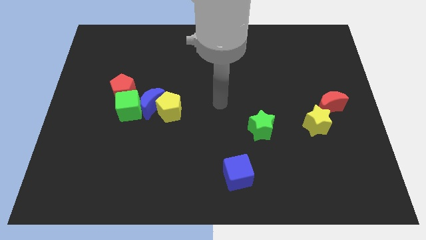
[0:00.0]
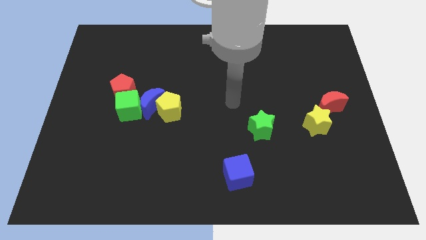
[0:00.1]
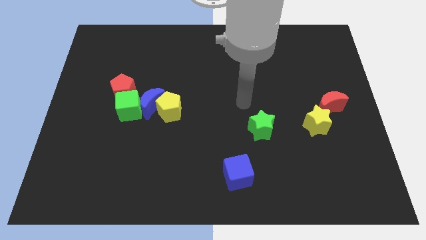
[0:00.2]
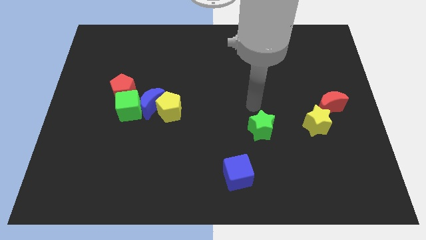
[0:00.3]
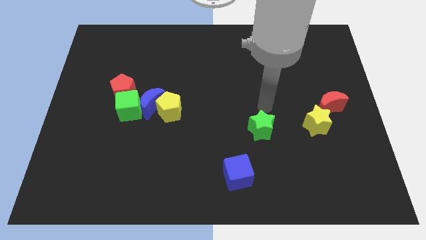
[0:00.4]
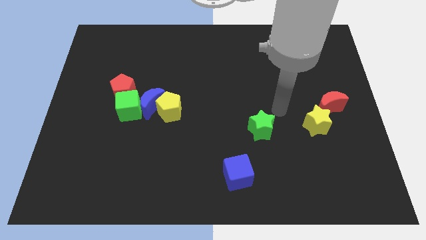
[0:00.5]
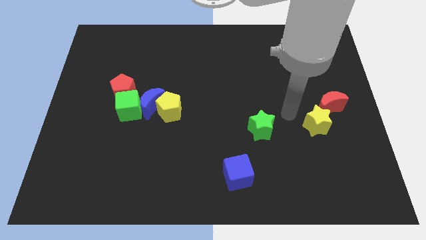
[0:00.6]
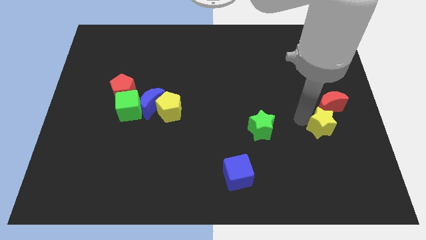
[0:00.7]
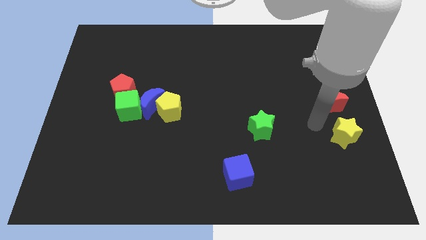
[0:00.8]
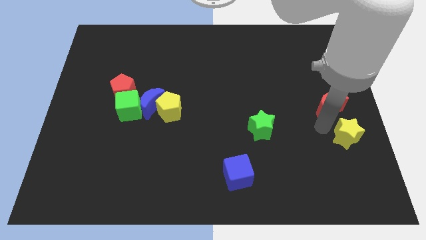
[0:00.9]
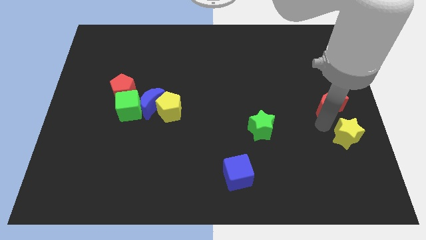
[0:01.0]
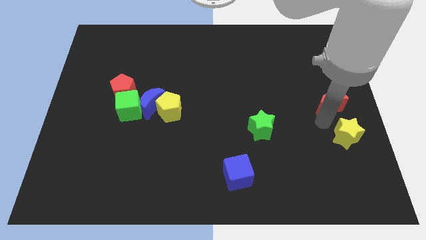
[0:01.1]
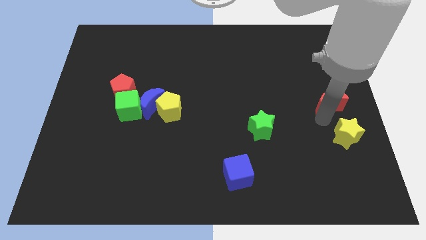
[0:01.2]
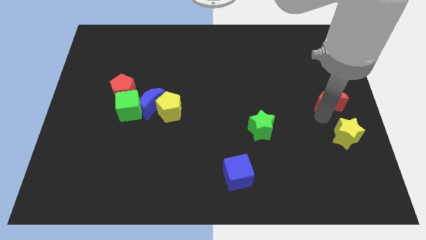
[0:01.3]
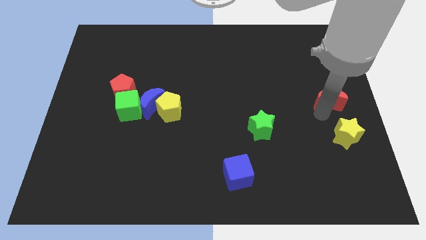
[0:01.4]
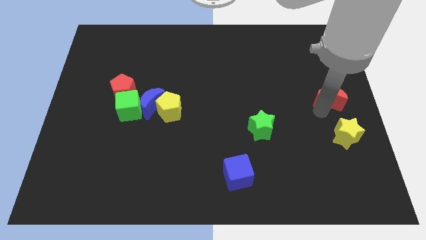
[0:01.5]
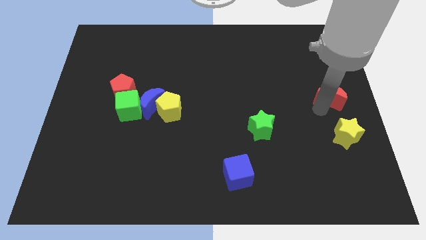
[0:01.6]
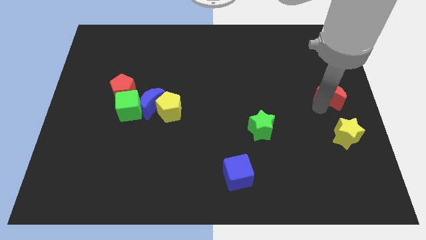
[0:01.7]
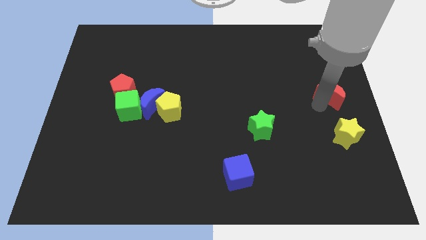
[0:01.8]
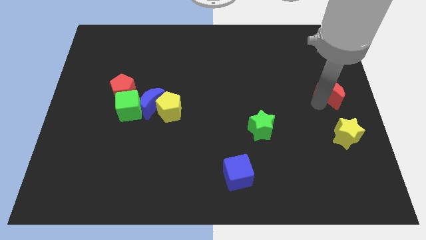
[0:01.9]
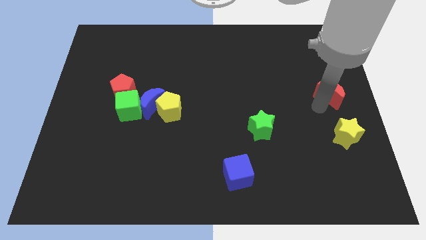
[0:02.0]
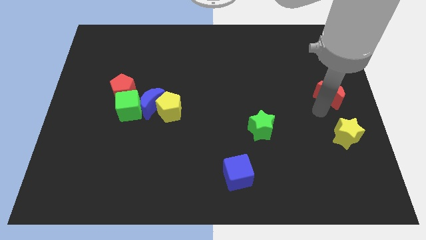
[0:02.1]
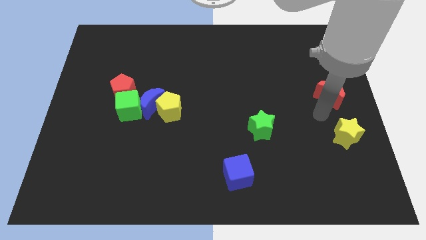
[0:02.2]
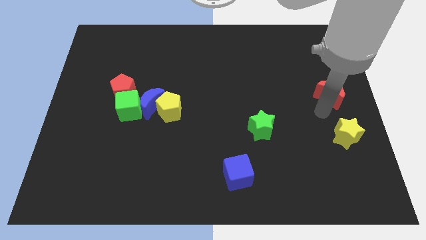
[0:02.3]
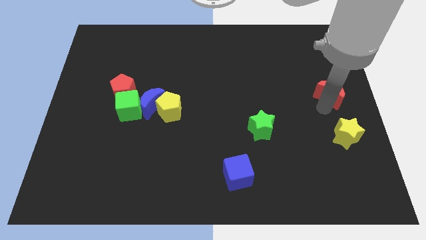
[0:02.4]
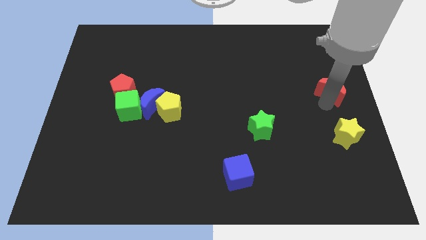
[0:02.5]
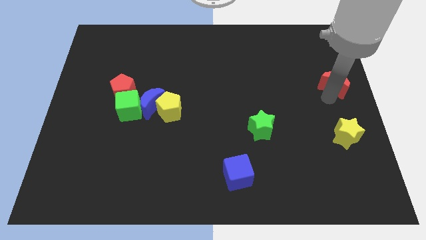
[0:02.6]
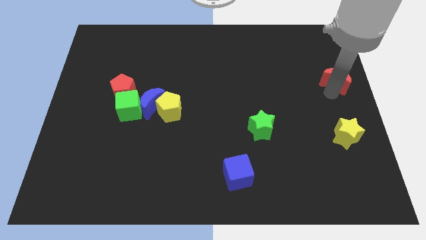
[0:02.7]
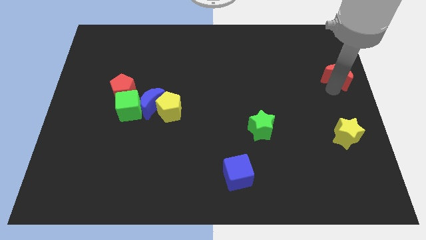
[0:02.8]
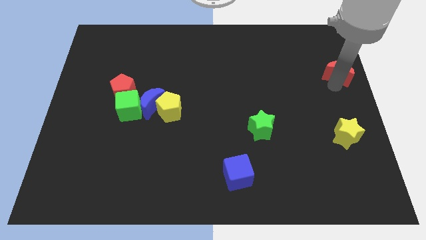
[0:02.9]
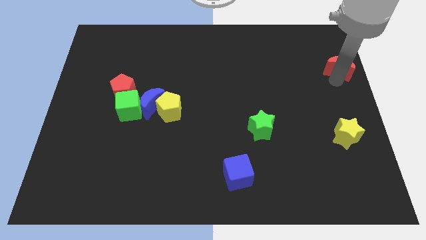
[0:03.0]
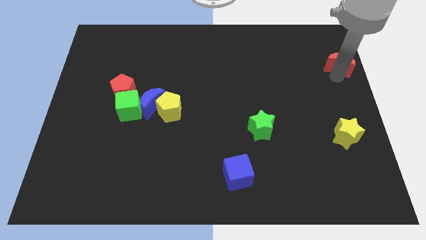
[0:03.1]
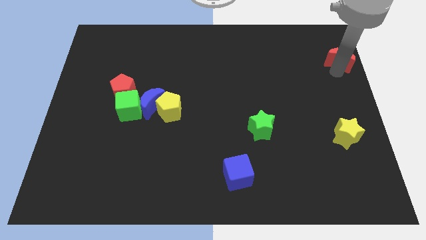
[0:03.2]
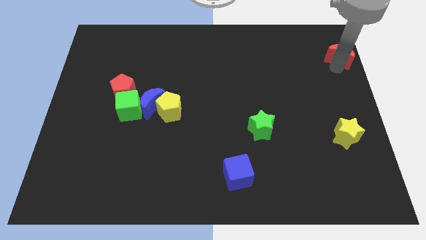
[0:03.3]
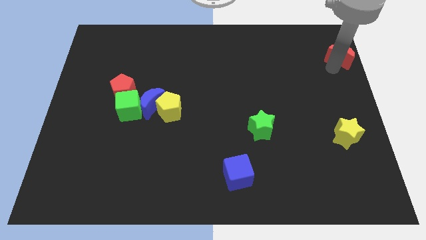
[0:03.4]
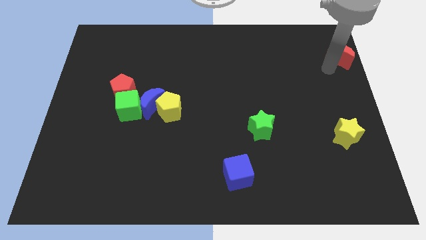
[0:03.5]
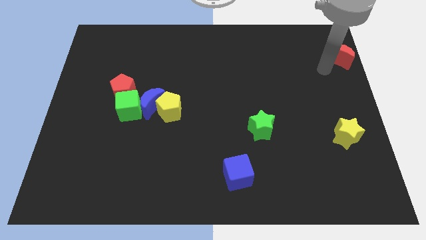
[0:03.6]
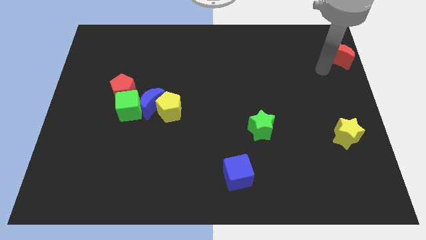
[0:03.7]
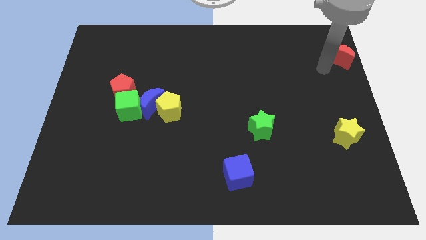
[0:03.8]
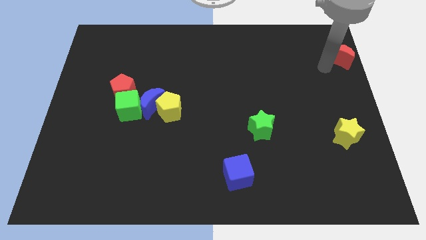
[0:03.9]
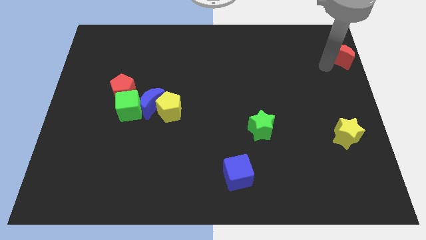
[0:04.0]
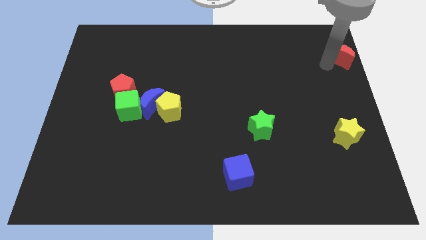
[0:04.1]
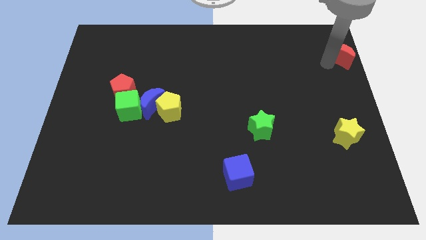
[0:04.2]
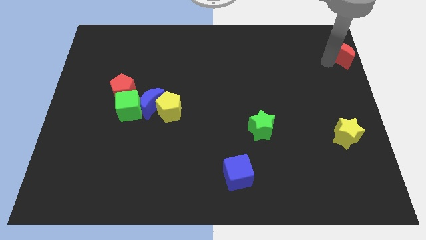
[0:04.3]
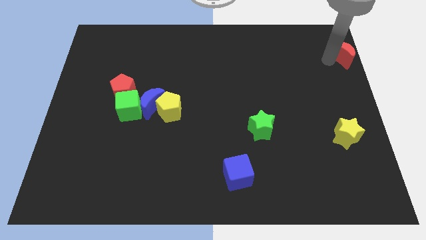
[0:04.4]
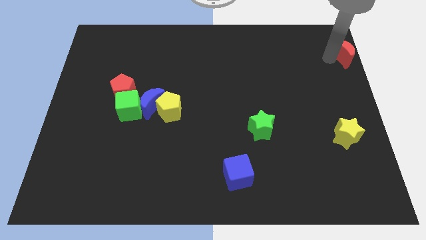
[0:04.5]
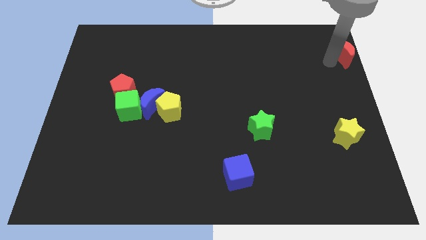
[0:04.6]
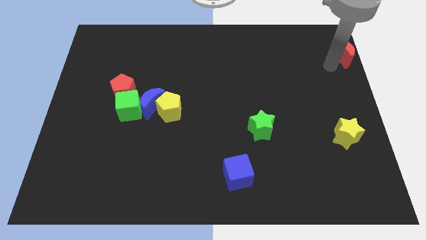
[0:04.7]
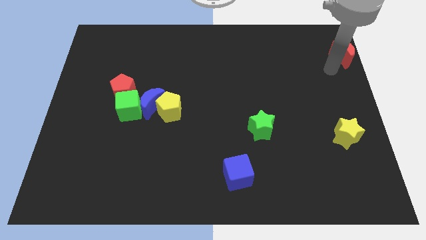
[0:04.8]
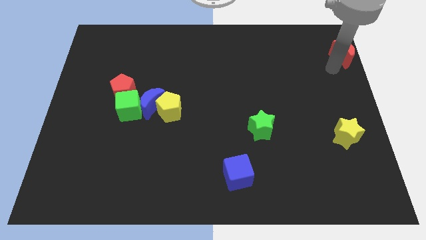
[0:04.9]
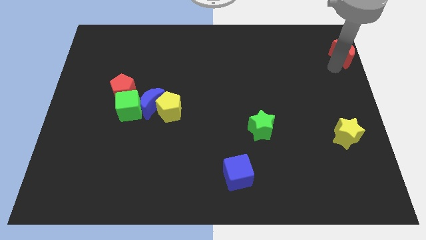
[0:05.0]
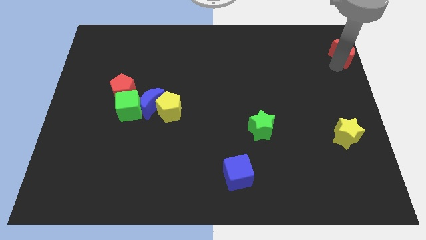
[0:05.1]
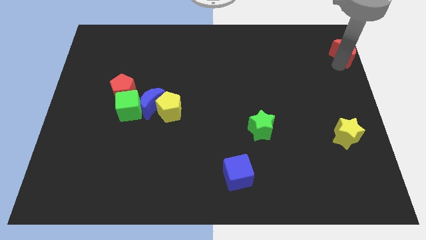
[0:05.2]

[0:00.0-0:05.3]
push the red moon to the upper right corner
